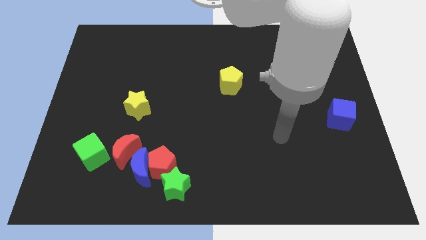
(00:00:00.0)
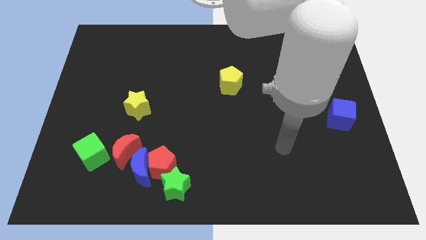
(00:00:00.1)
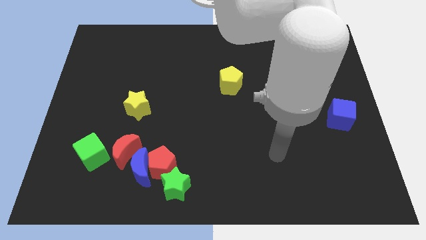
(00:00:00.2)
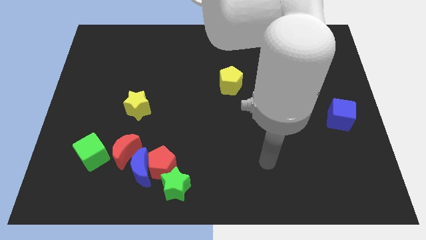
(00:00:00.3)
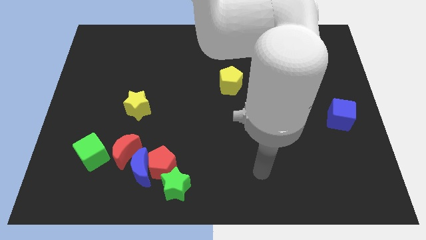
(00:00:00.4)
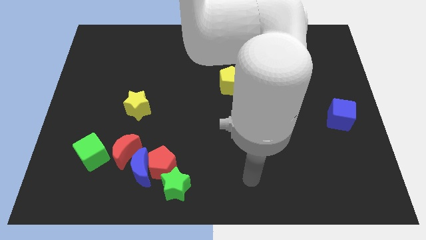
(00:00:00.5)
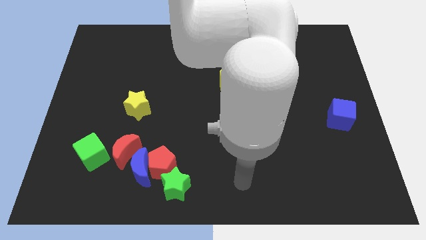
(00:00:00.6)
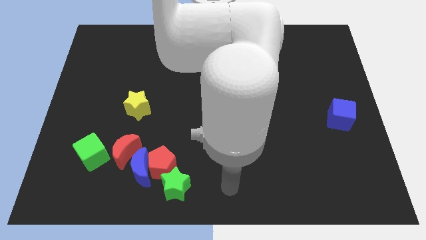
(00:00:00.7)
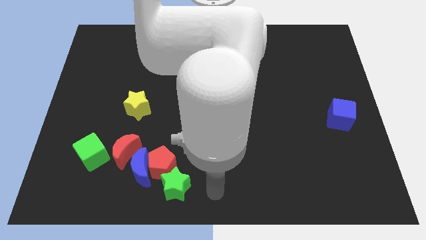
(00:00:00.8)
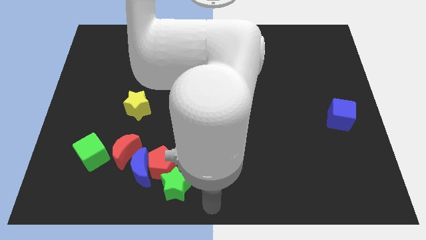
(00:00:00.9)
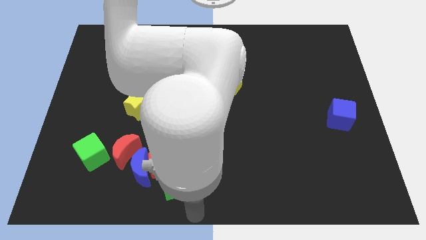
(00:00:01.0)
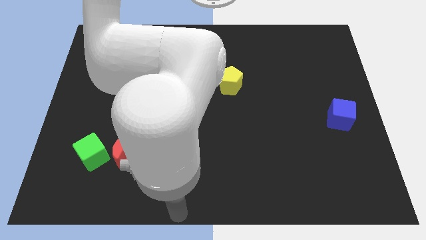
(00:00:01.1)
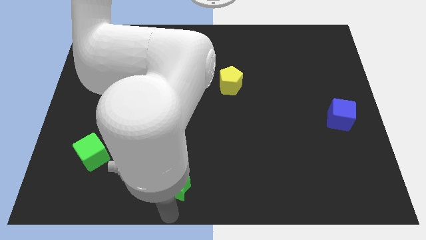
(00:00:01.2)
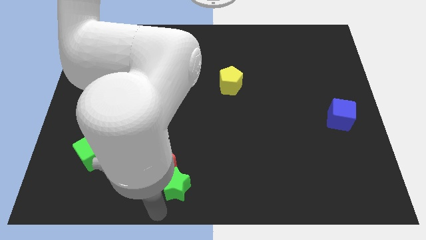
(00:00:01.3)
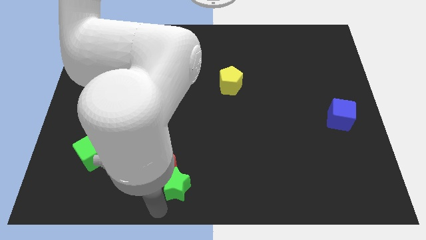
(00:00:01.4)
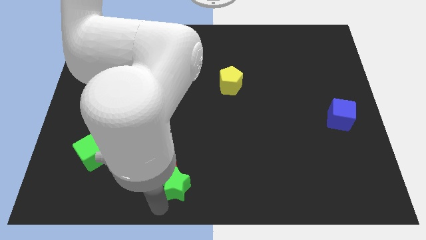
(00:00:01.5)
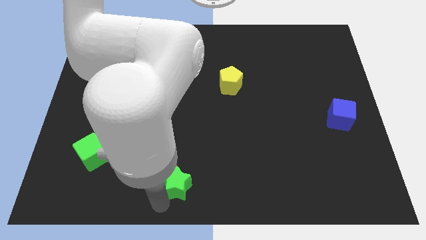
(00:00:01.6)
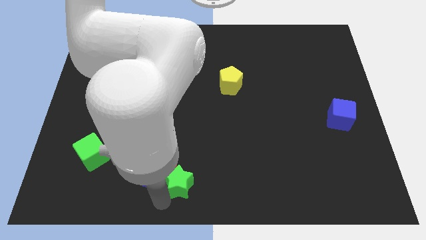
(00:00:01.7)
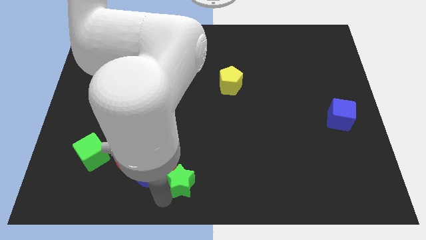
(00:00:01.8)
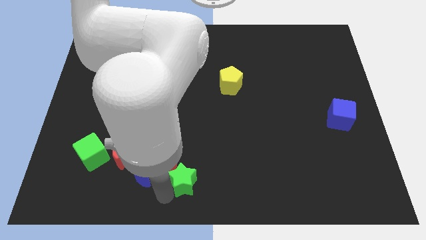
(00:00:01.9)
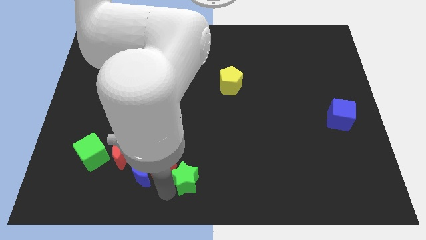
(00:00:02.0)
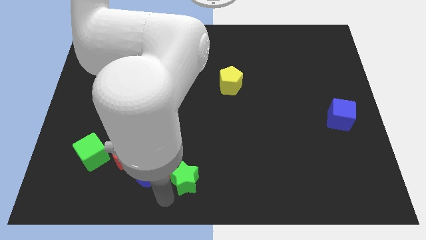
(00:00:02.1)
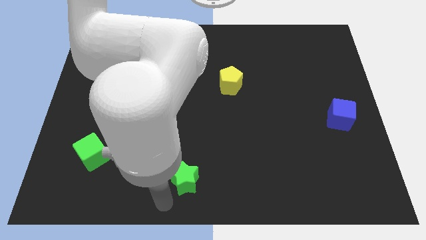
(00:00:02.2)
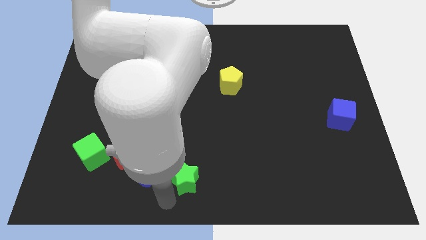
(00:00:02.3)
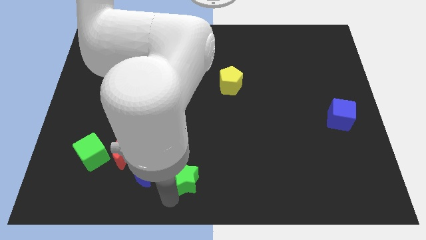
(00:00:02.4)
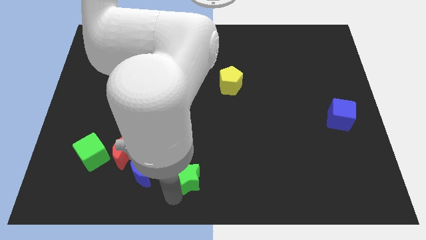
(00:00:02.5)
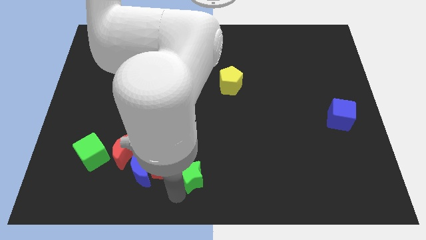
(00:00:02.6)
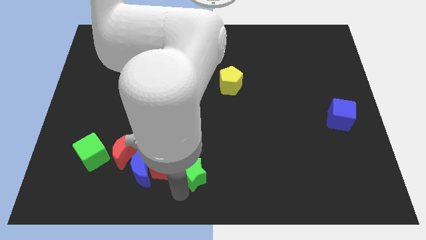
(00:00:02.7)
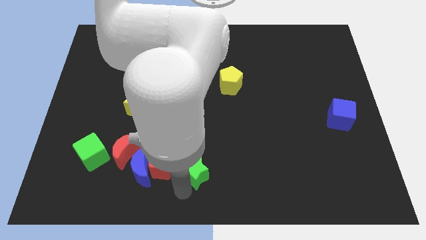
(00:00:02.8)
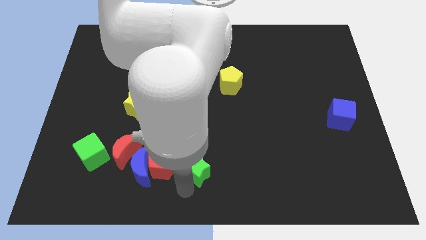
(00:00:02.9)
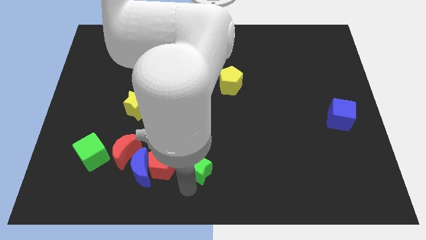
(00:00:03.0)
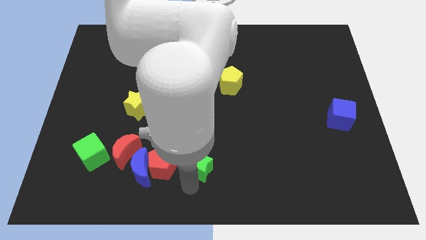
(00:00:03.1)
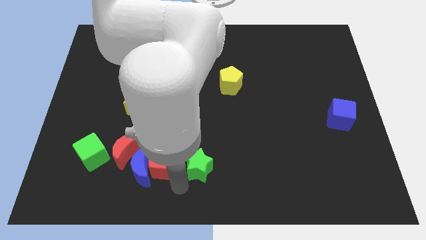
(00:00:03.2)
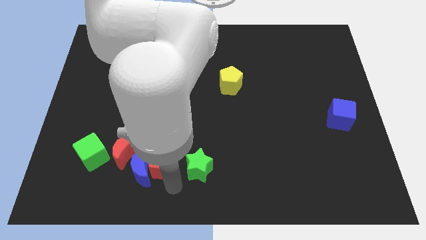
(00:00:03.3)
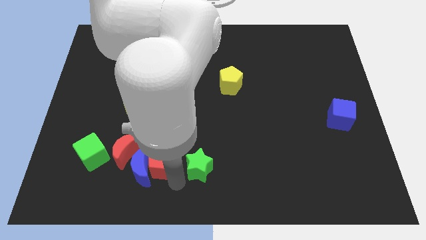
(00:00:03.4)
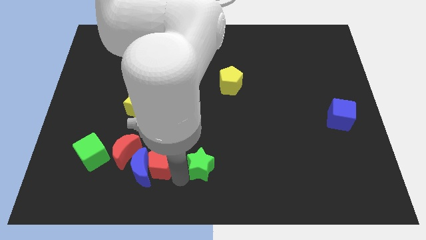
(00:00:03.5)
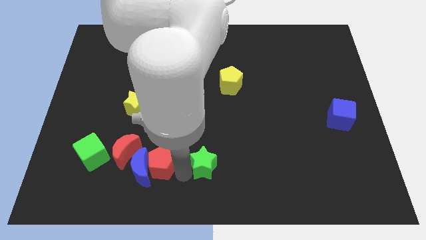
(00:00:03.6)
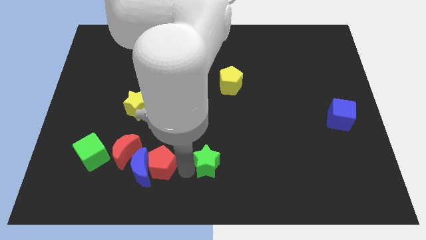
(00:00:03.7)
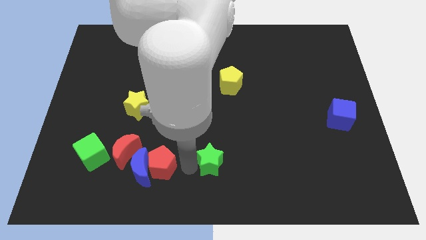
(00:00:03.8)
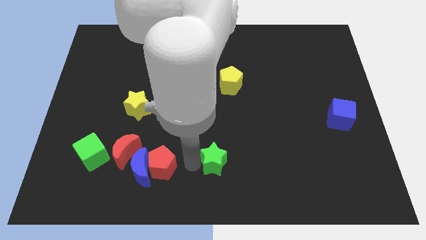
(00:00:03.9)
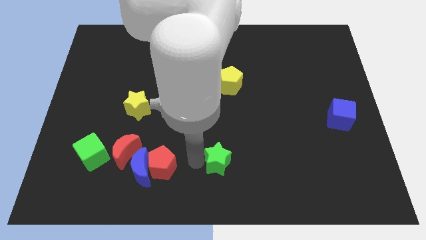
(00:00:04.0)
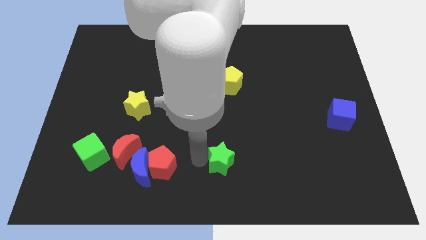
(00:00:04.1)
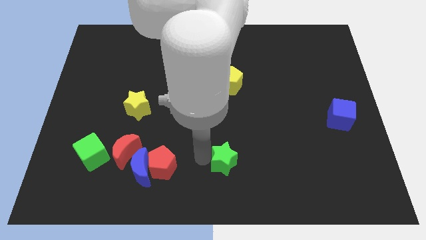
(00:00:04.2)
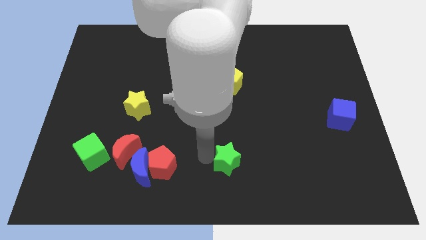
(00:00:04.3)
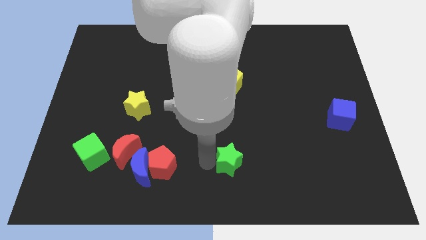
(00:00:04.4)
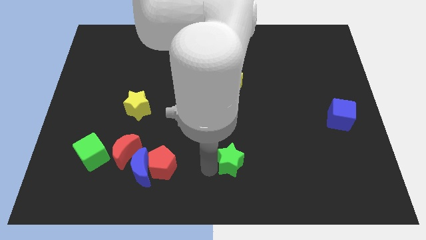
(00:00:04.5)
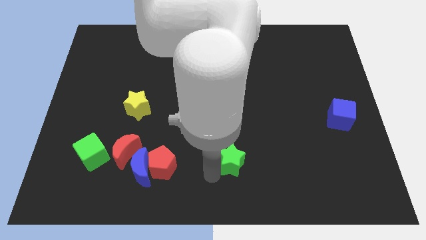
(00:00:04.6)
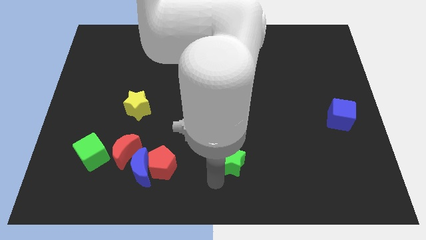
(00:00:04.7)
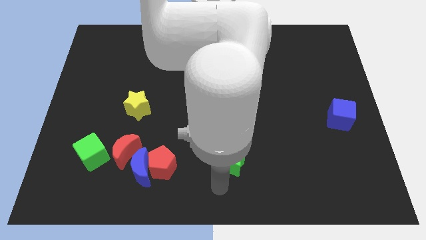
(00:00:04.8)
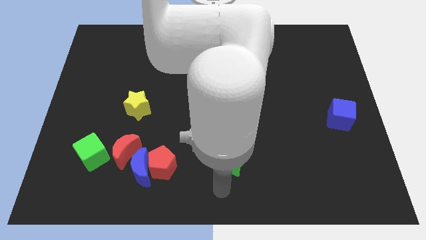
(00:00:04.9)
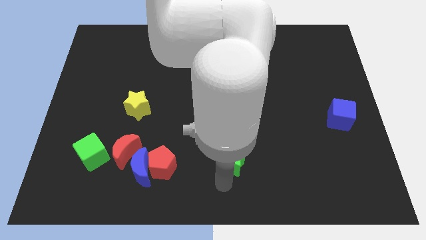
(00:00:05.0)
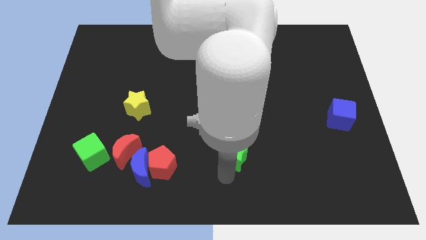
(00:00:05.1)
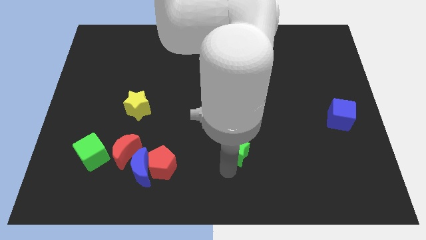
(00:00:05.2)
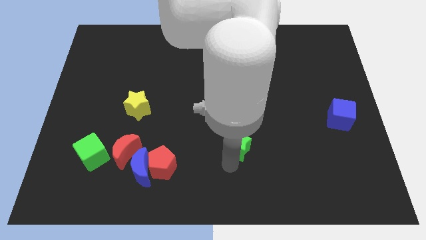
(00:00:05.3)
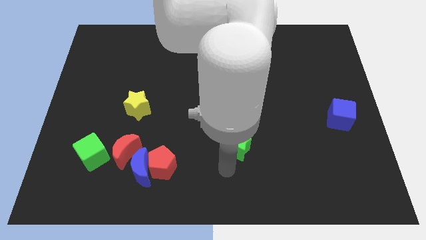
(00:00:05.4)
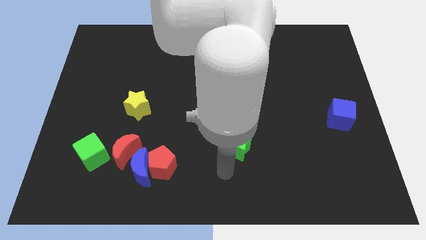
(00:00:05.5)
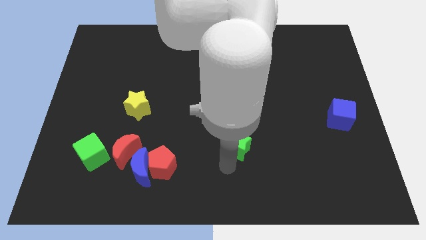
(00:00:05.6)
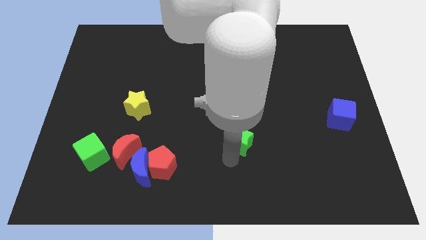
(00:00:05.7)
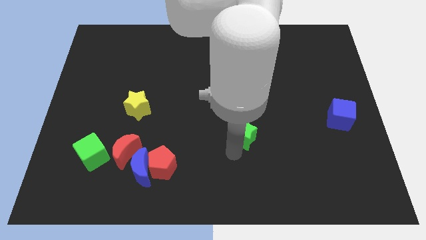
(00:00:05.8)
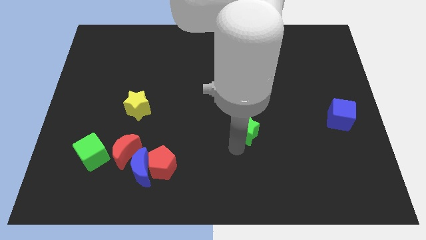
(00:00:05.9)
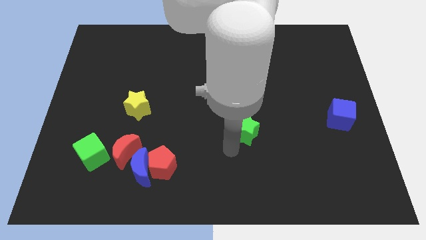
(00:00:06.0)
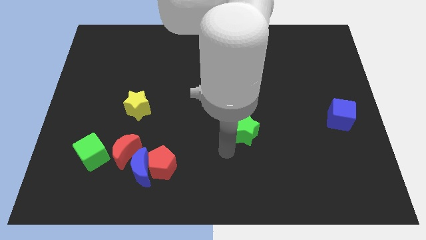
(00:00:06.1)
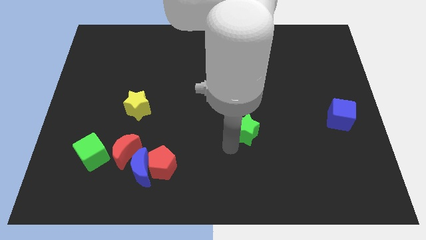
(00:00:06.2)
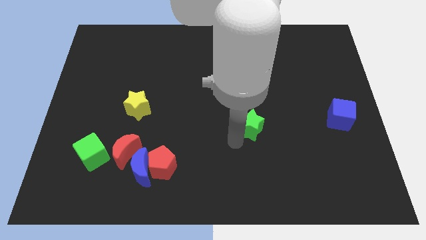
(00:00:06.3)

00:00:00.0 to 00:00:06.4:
slide the green star up and right diagonally

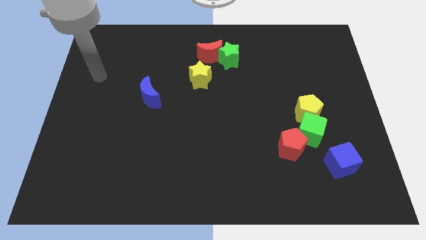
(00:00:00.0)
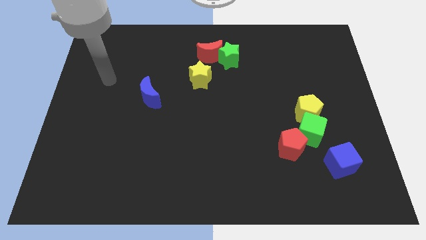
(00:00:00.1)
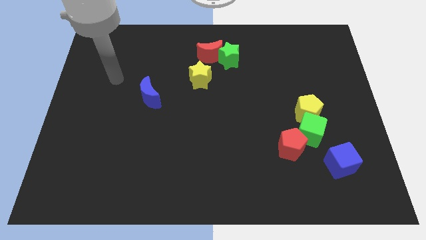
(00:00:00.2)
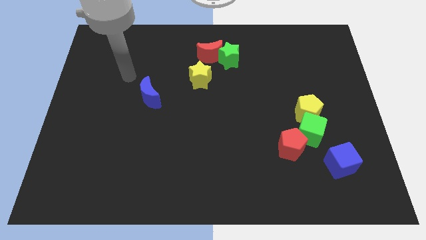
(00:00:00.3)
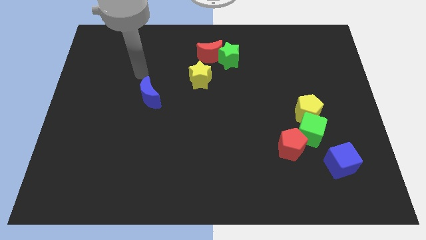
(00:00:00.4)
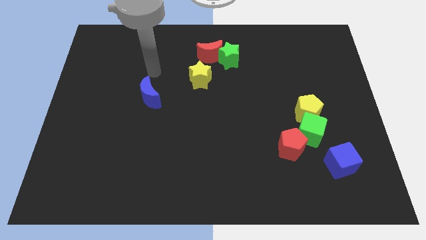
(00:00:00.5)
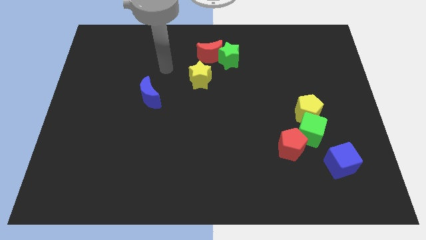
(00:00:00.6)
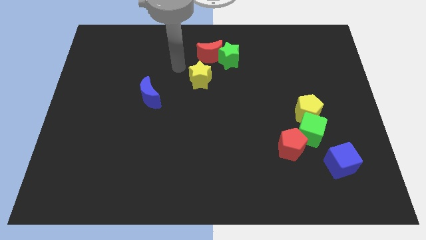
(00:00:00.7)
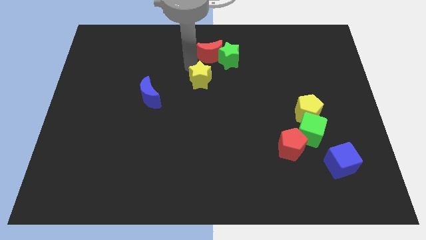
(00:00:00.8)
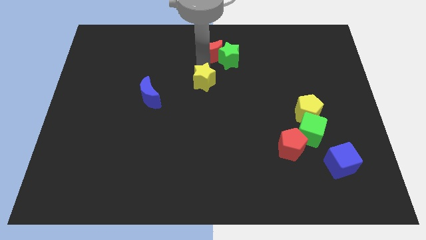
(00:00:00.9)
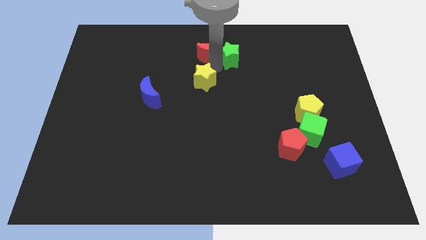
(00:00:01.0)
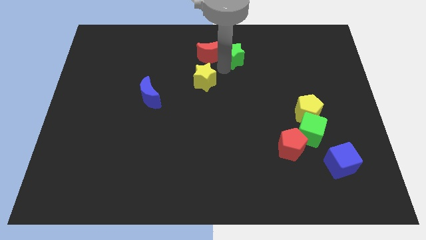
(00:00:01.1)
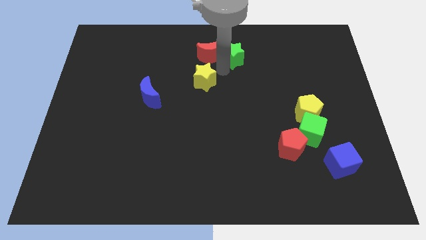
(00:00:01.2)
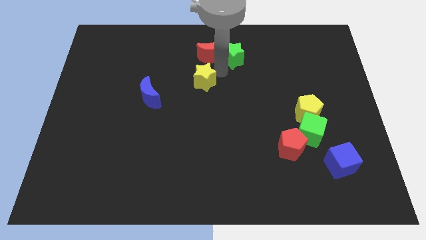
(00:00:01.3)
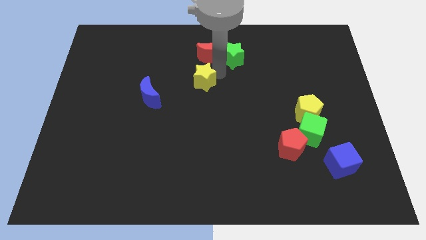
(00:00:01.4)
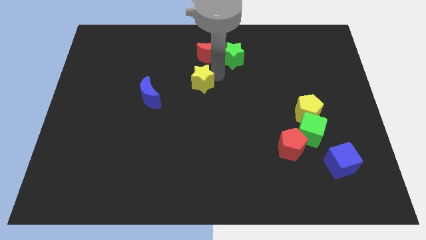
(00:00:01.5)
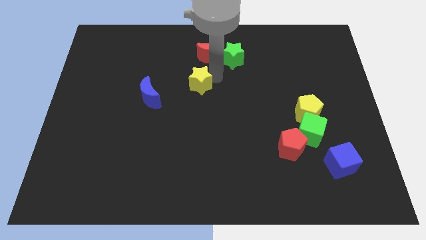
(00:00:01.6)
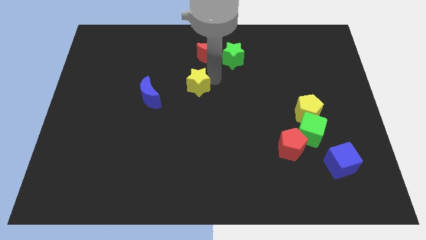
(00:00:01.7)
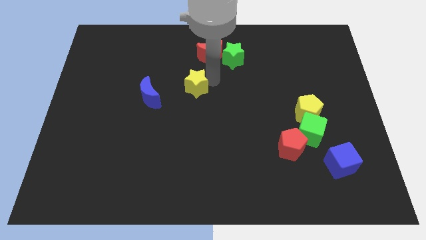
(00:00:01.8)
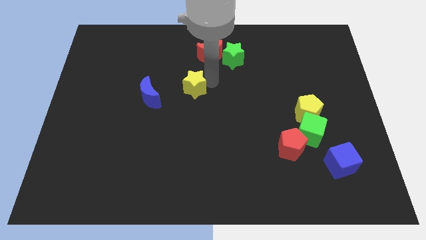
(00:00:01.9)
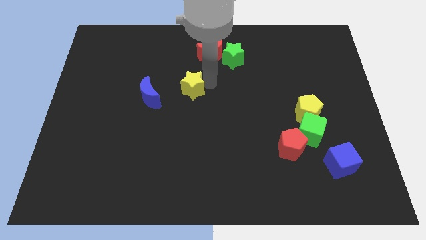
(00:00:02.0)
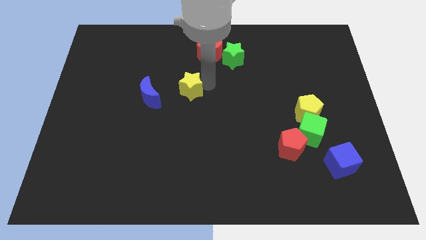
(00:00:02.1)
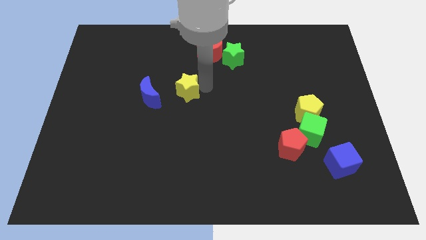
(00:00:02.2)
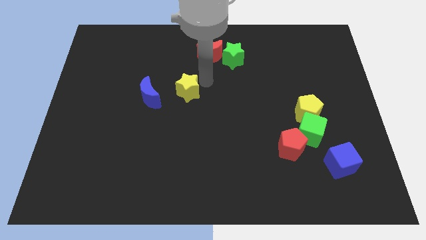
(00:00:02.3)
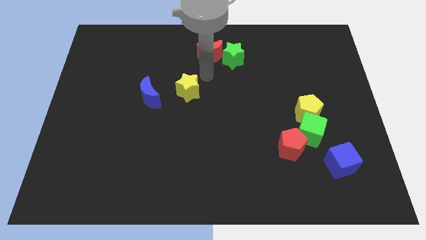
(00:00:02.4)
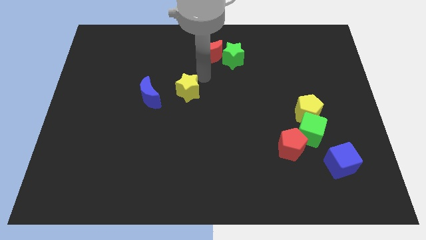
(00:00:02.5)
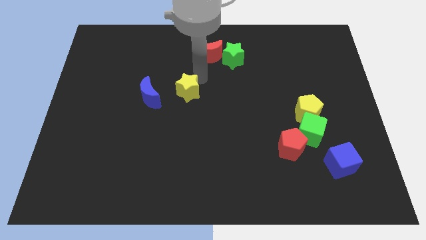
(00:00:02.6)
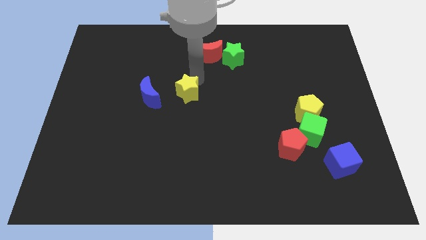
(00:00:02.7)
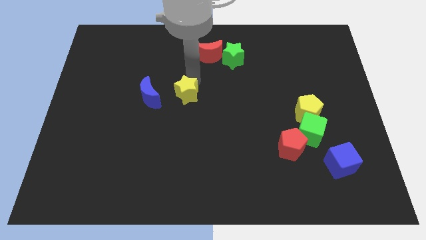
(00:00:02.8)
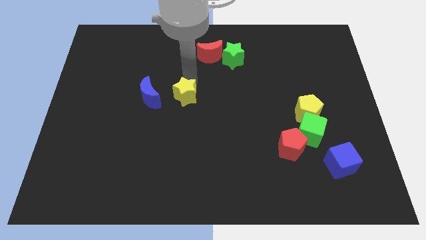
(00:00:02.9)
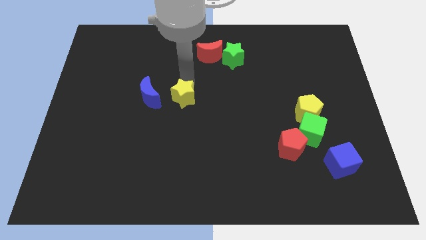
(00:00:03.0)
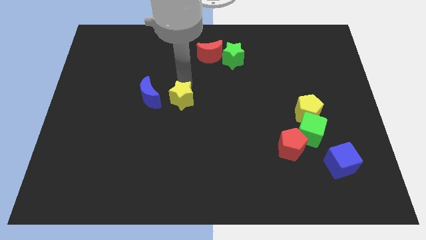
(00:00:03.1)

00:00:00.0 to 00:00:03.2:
push the yellow star down and to the left diagonally a bit
